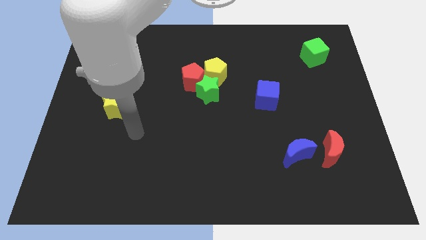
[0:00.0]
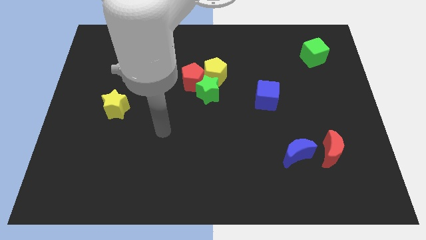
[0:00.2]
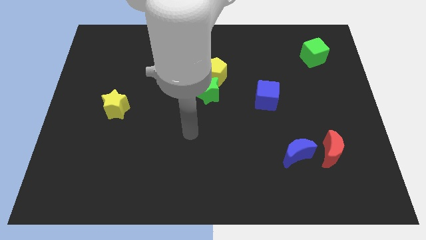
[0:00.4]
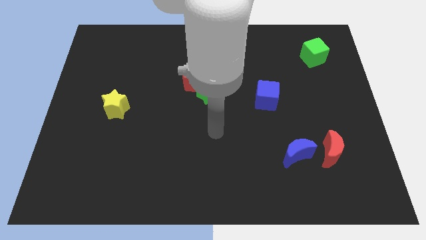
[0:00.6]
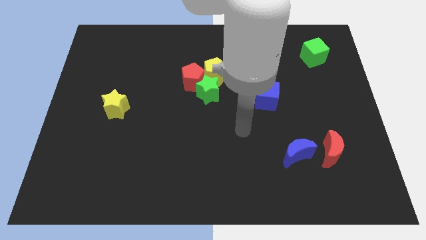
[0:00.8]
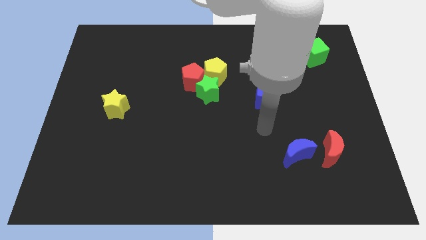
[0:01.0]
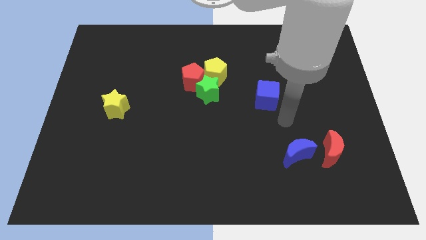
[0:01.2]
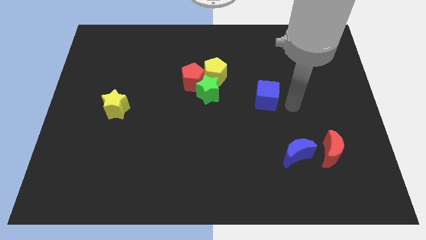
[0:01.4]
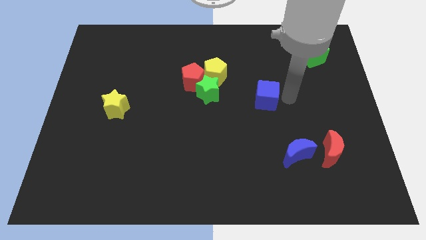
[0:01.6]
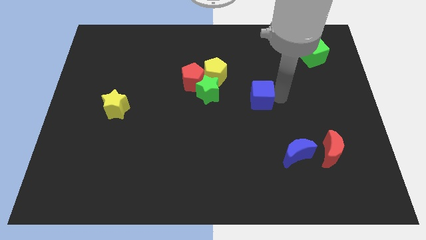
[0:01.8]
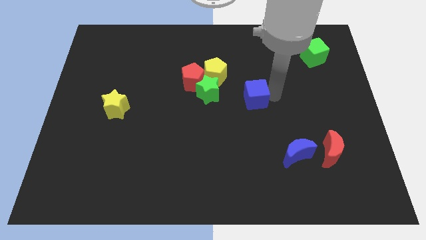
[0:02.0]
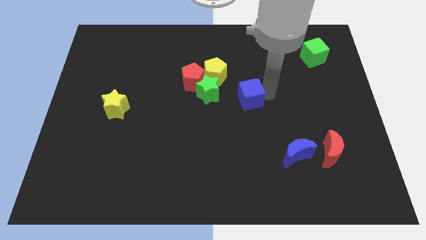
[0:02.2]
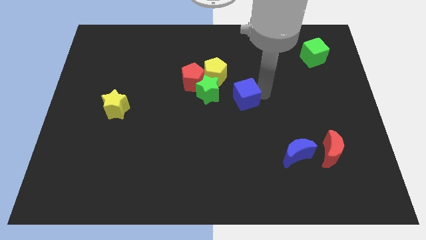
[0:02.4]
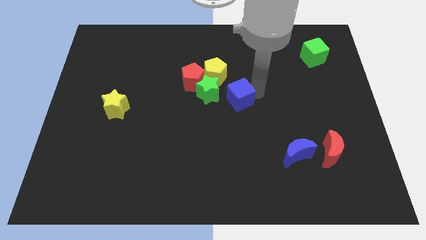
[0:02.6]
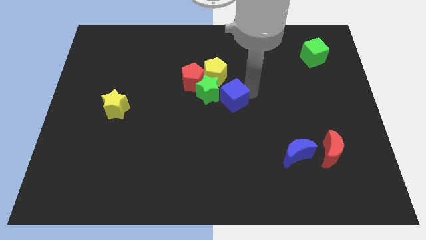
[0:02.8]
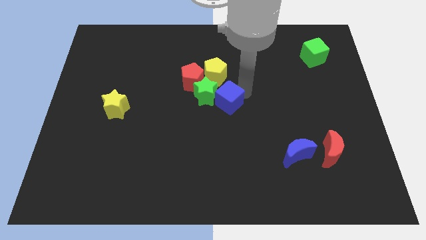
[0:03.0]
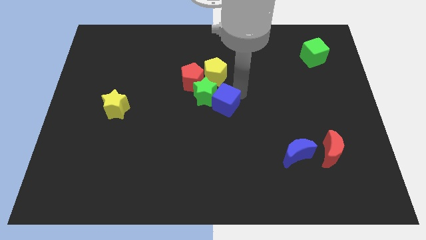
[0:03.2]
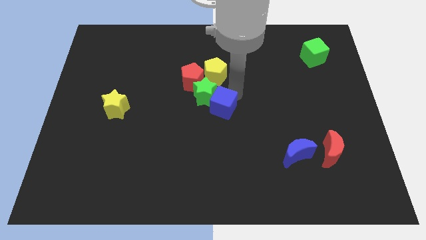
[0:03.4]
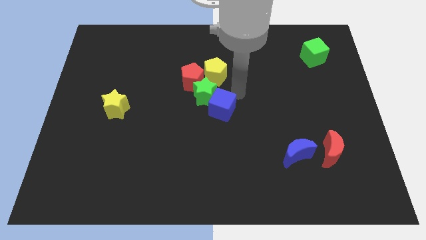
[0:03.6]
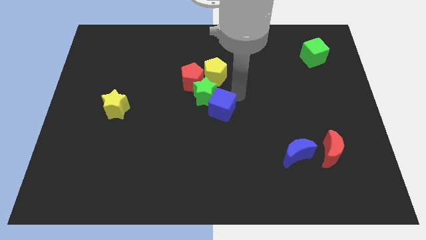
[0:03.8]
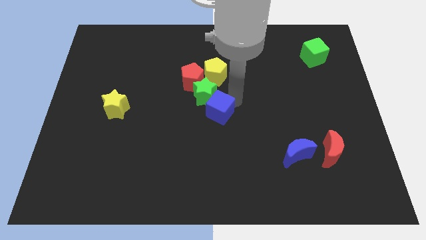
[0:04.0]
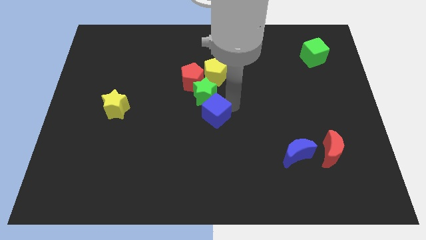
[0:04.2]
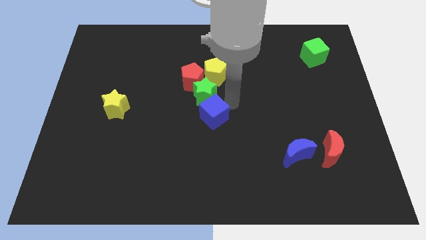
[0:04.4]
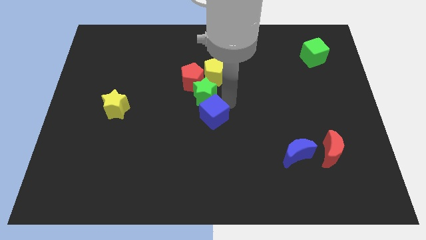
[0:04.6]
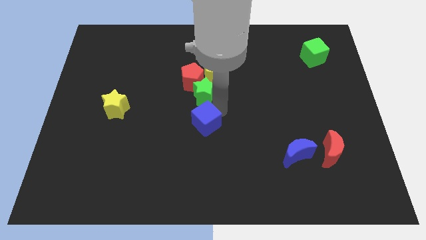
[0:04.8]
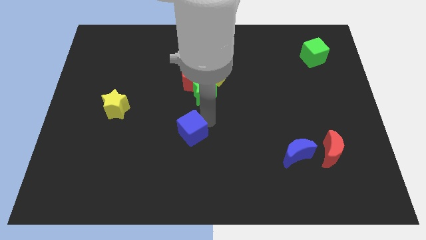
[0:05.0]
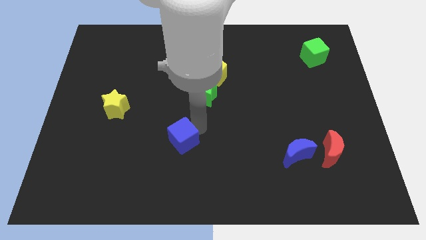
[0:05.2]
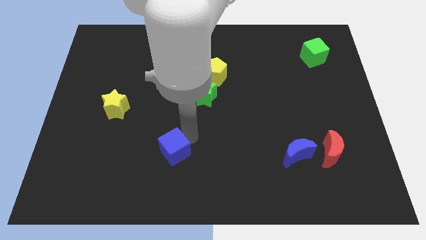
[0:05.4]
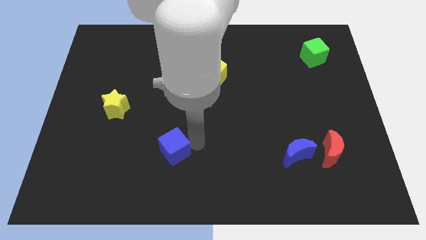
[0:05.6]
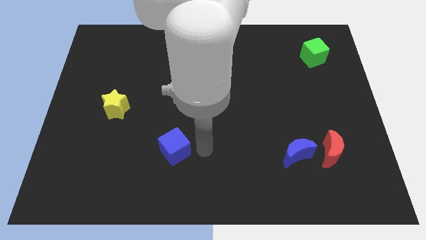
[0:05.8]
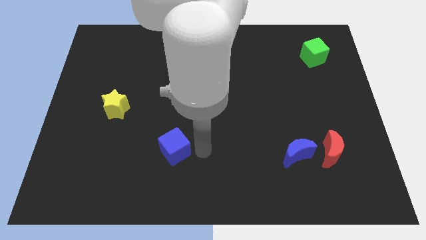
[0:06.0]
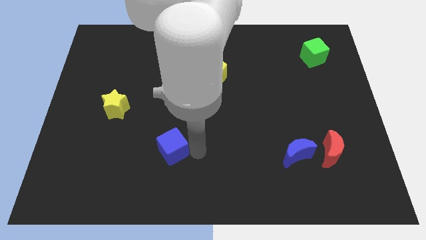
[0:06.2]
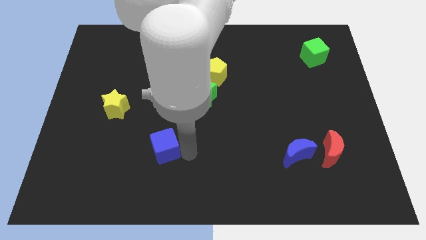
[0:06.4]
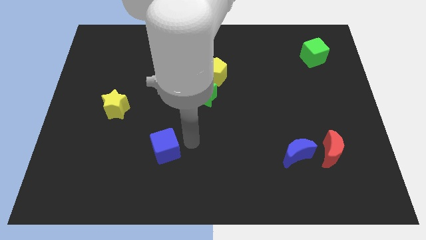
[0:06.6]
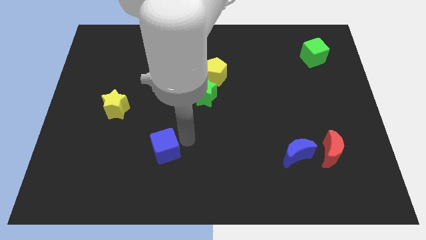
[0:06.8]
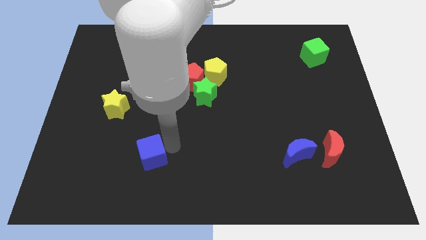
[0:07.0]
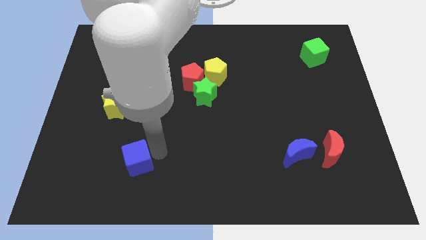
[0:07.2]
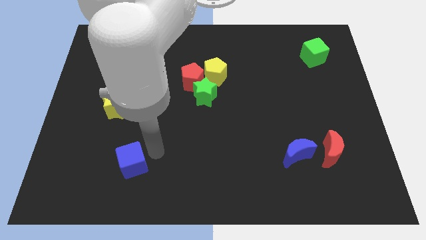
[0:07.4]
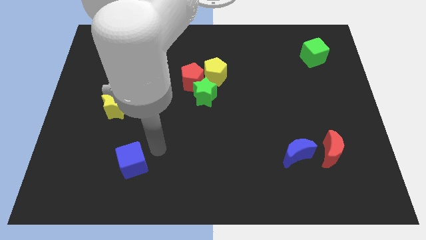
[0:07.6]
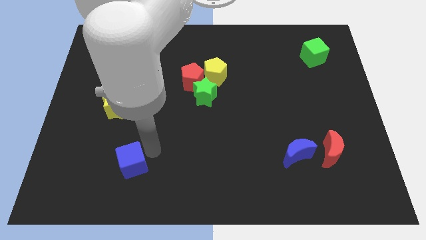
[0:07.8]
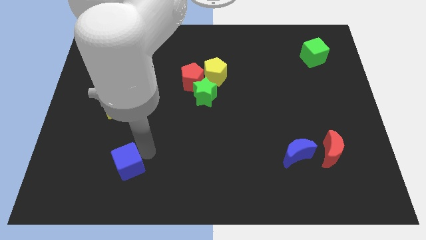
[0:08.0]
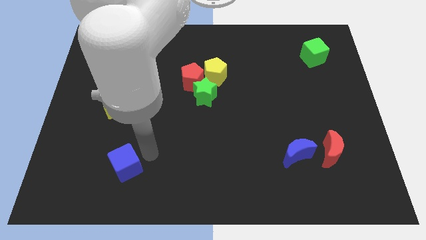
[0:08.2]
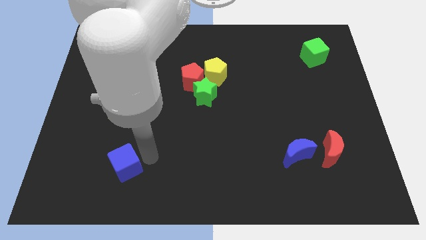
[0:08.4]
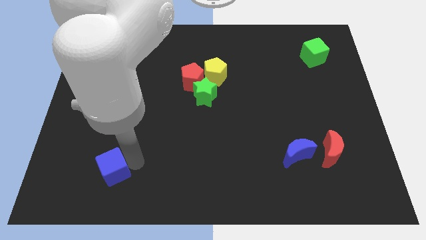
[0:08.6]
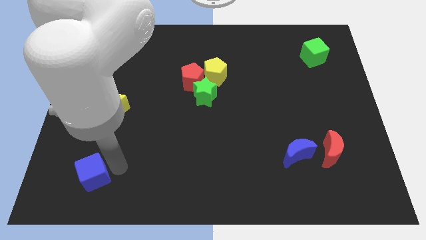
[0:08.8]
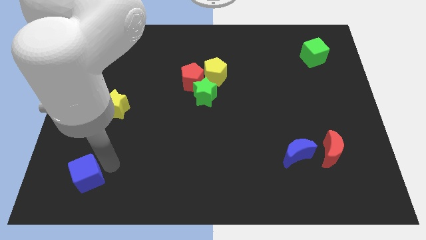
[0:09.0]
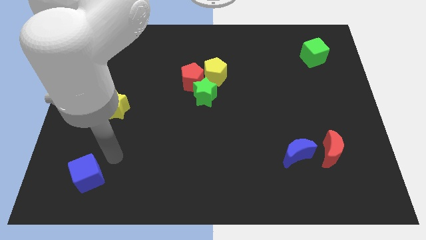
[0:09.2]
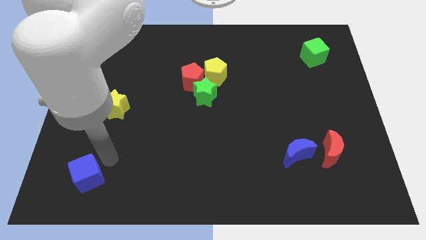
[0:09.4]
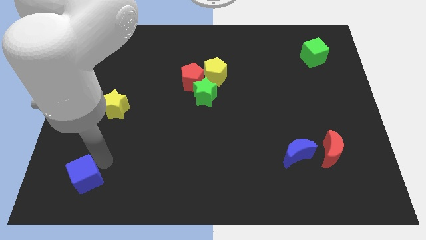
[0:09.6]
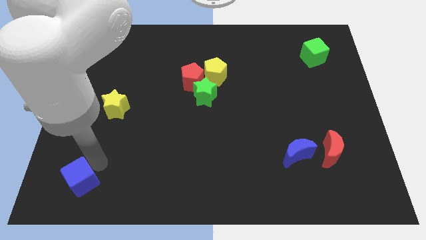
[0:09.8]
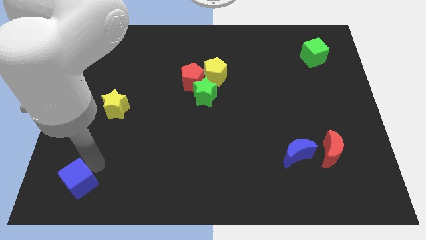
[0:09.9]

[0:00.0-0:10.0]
put the blue cube to the bottom left

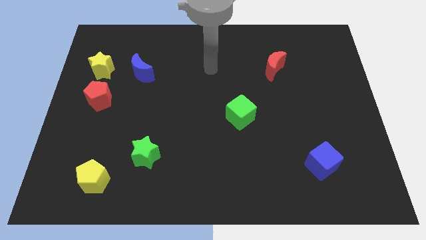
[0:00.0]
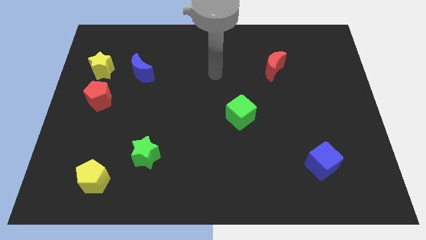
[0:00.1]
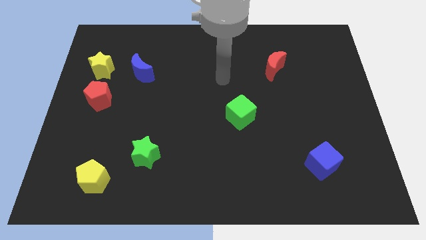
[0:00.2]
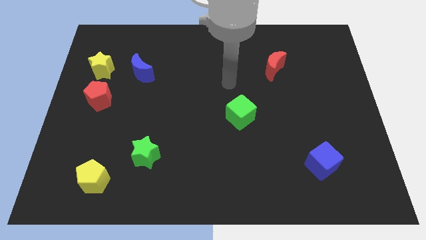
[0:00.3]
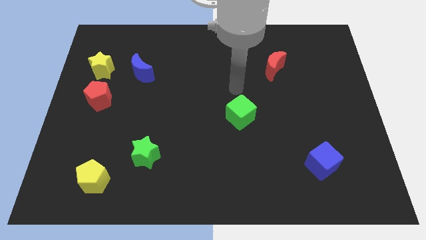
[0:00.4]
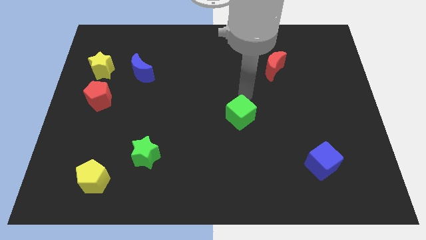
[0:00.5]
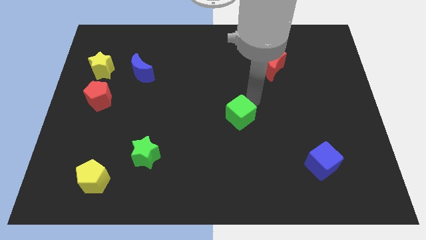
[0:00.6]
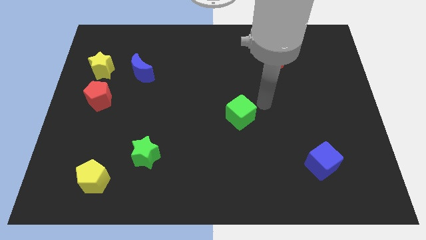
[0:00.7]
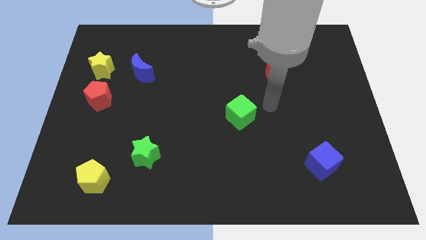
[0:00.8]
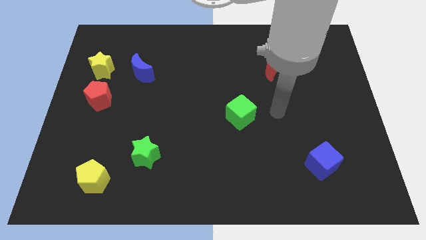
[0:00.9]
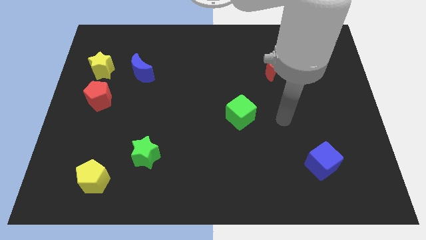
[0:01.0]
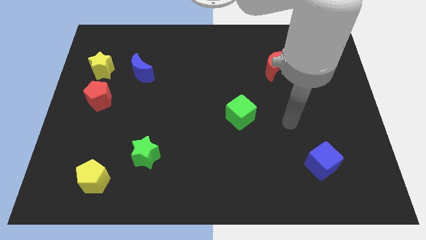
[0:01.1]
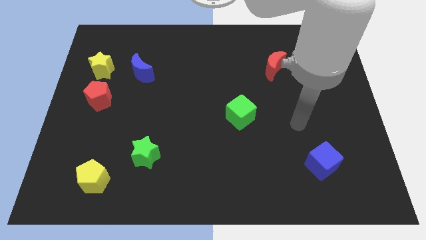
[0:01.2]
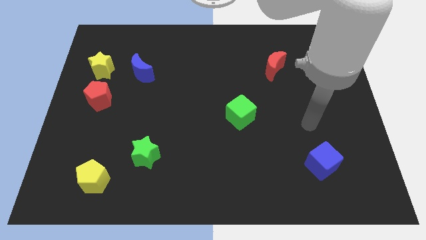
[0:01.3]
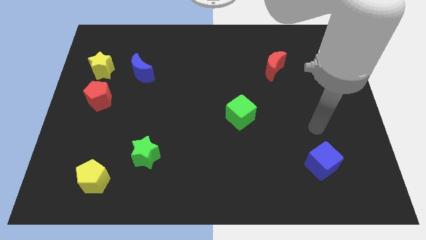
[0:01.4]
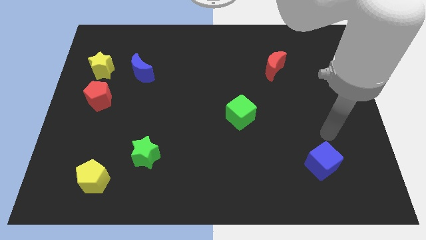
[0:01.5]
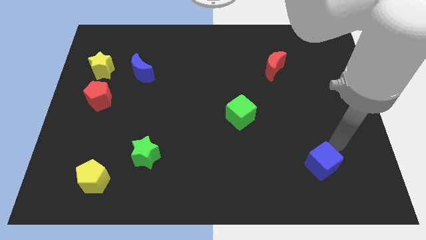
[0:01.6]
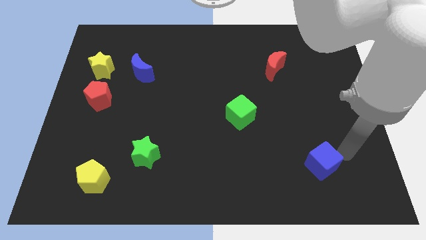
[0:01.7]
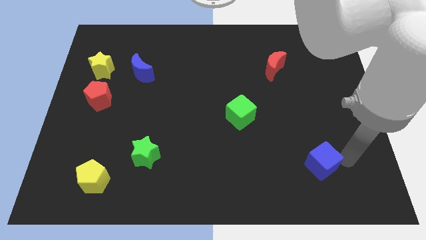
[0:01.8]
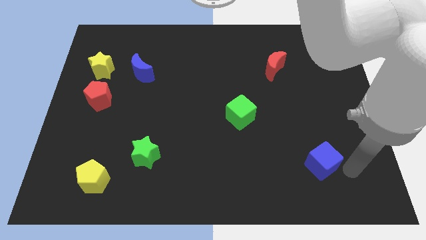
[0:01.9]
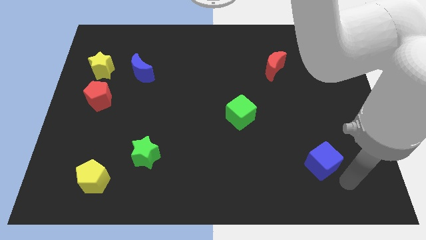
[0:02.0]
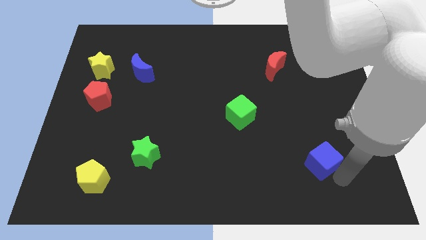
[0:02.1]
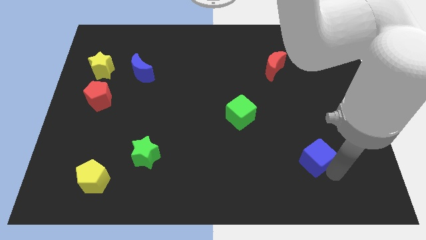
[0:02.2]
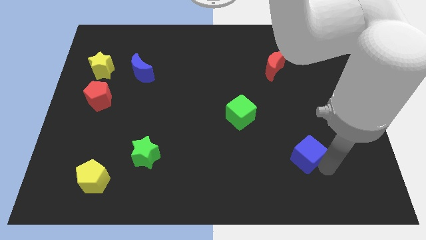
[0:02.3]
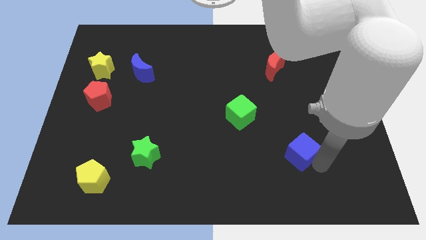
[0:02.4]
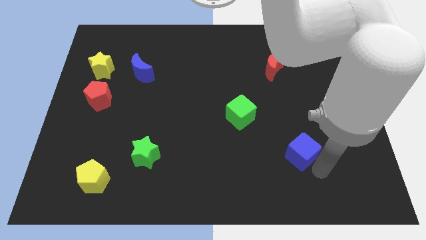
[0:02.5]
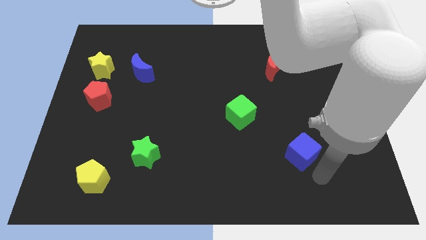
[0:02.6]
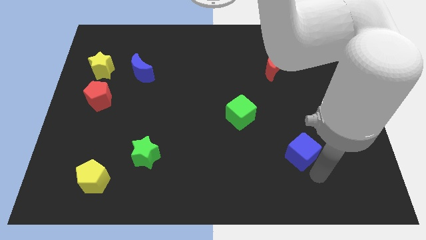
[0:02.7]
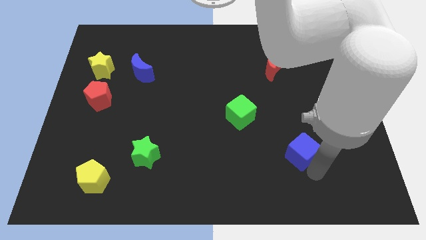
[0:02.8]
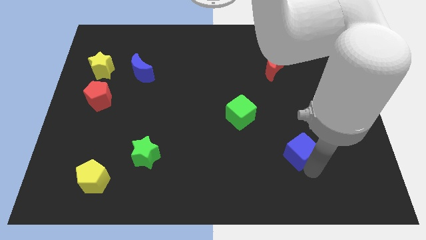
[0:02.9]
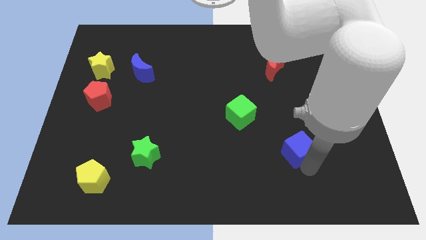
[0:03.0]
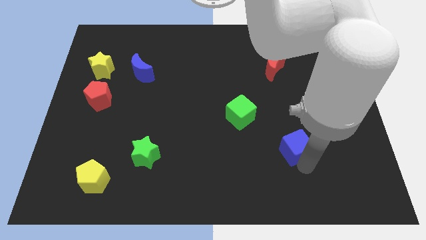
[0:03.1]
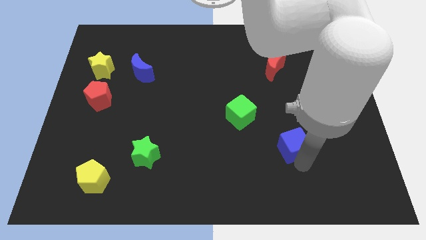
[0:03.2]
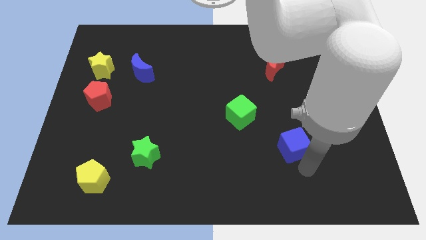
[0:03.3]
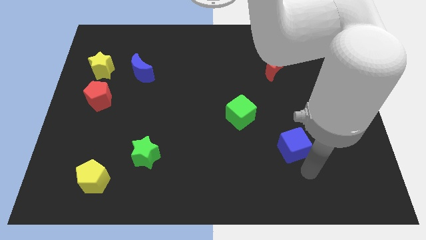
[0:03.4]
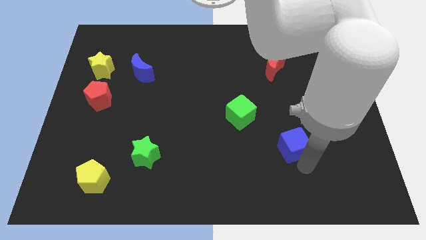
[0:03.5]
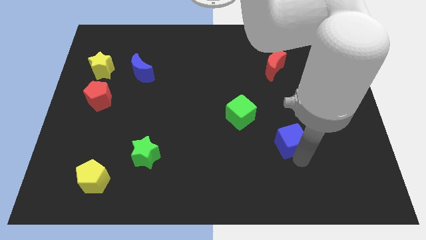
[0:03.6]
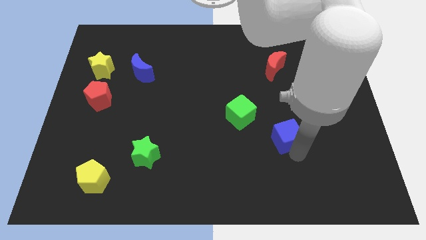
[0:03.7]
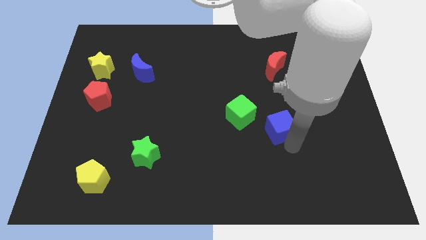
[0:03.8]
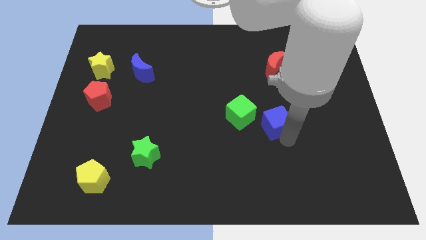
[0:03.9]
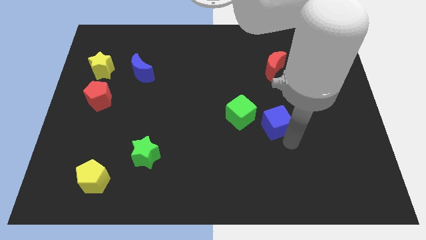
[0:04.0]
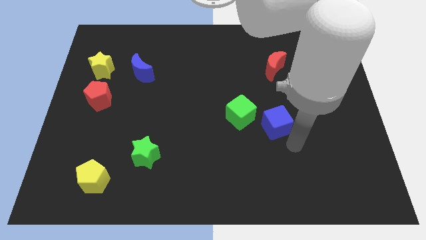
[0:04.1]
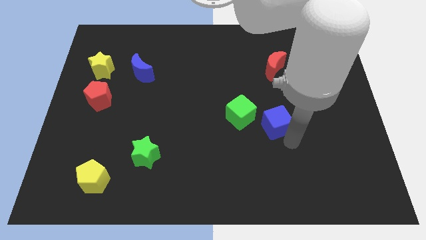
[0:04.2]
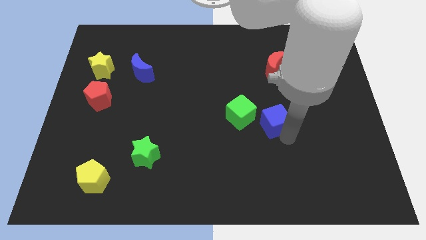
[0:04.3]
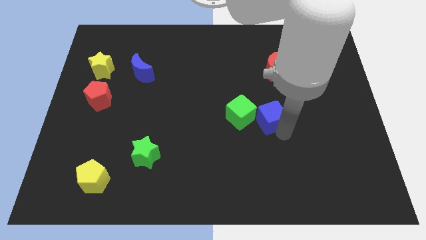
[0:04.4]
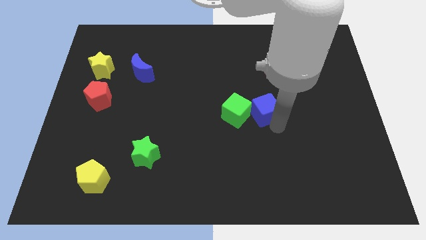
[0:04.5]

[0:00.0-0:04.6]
put the blue cube to the middle of the board
